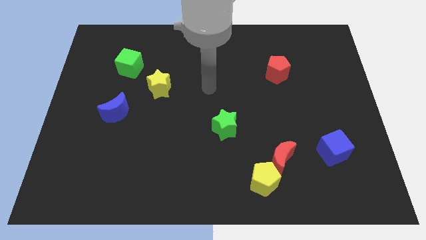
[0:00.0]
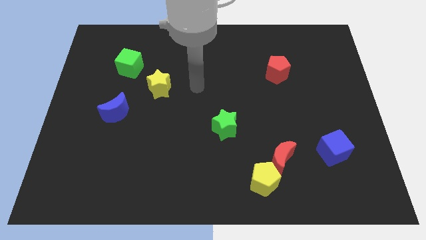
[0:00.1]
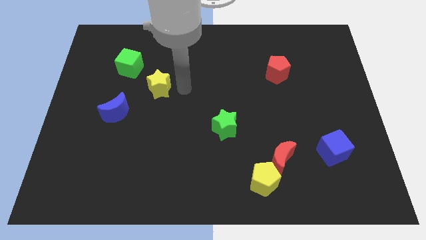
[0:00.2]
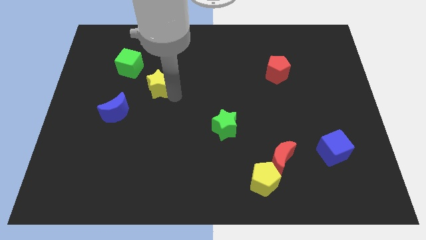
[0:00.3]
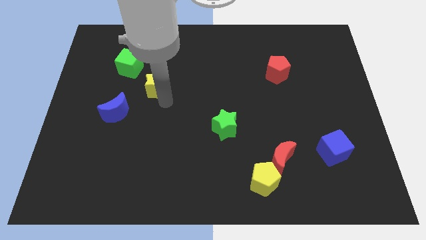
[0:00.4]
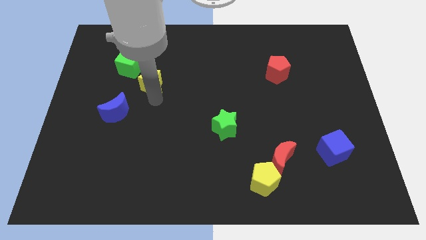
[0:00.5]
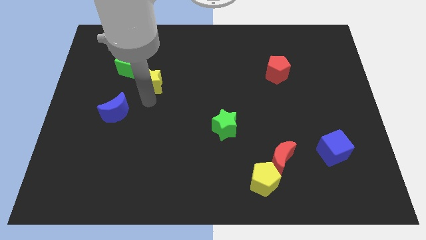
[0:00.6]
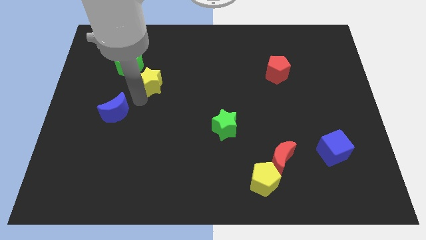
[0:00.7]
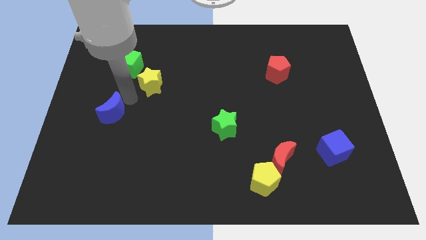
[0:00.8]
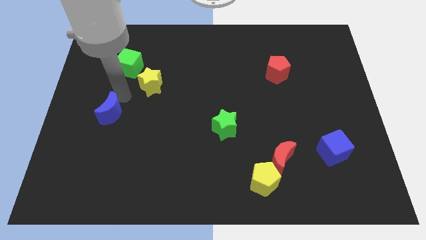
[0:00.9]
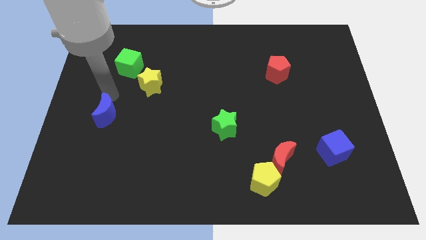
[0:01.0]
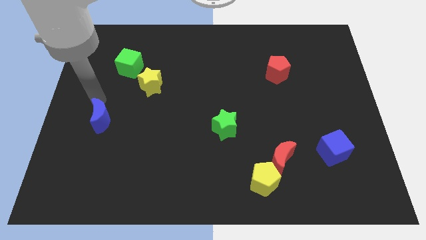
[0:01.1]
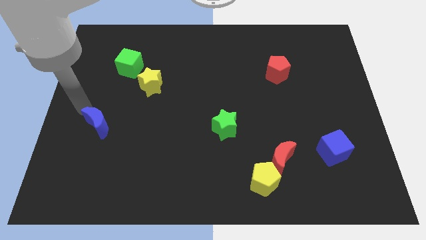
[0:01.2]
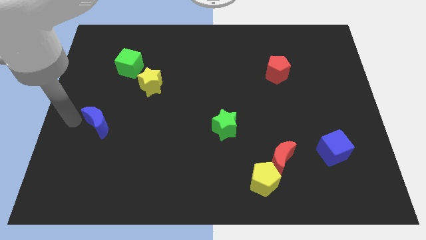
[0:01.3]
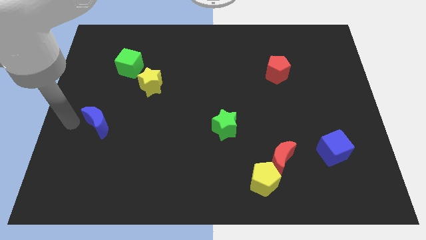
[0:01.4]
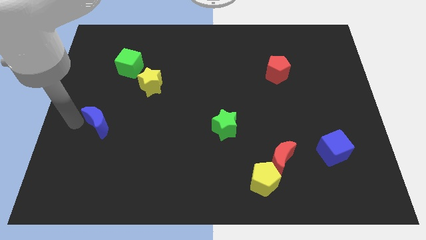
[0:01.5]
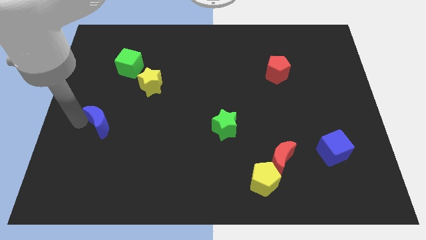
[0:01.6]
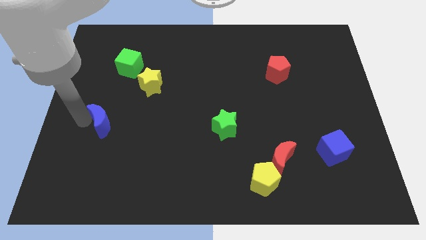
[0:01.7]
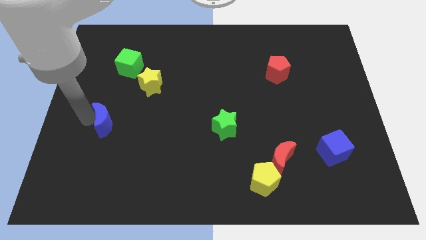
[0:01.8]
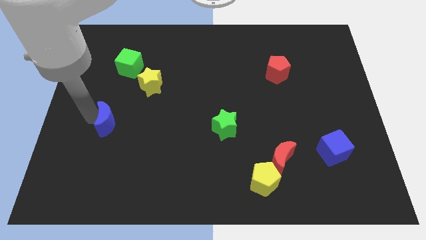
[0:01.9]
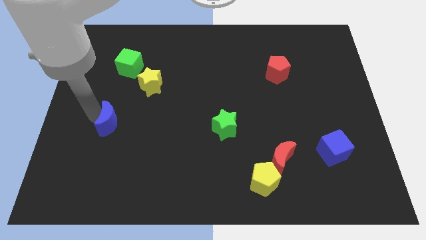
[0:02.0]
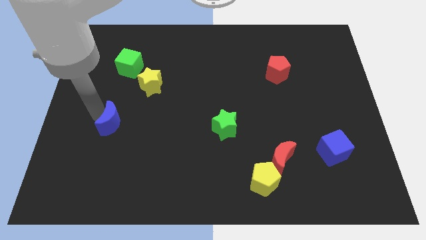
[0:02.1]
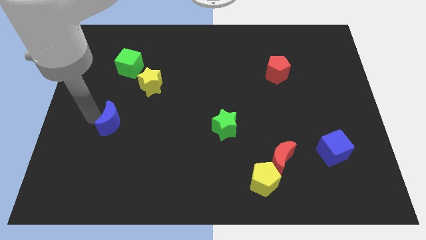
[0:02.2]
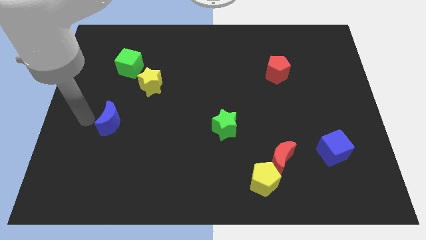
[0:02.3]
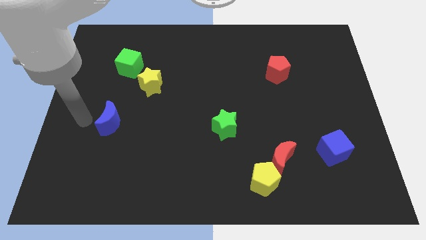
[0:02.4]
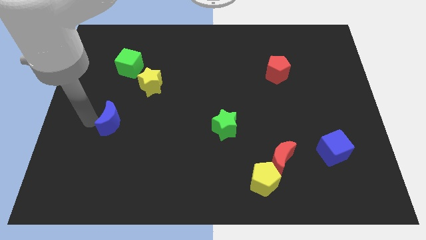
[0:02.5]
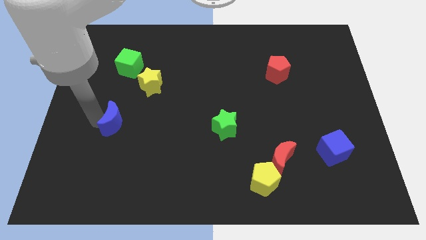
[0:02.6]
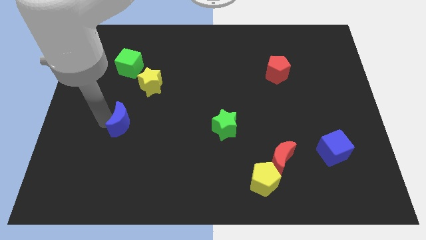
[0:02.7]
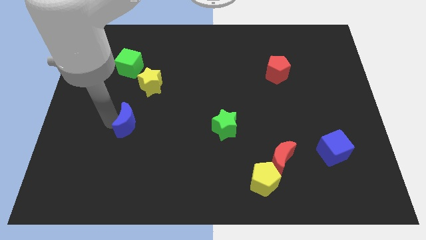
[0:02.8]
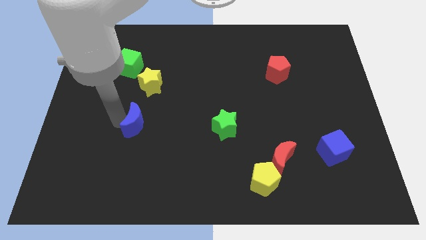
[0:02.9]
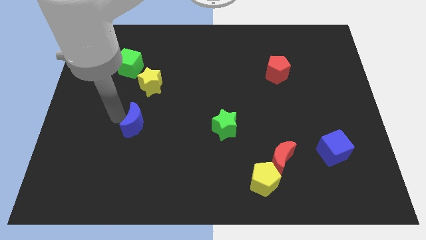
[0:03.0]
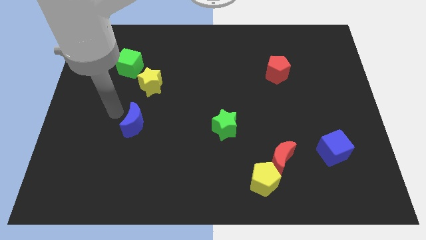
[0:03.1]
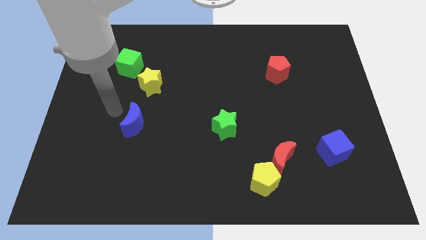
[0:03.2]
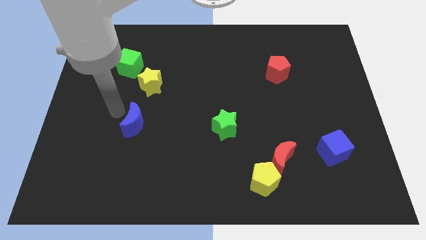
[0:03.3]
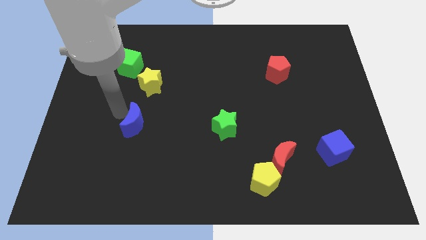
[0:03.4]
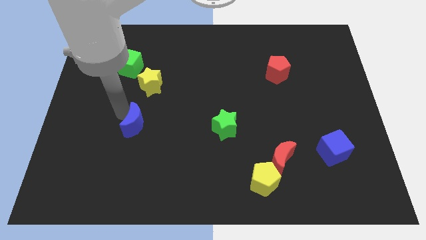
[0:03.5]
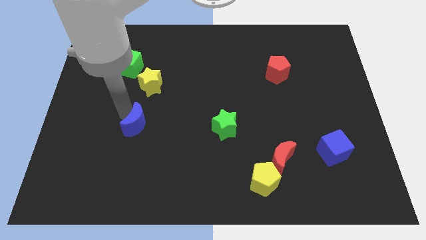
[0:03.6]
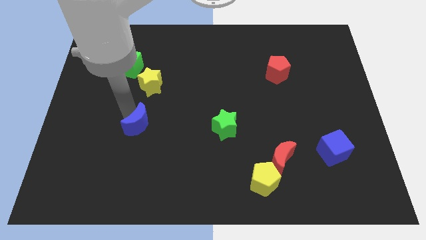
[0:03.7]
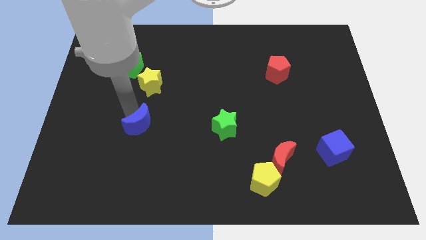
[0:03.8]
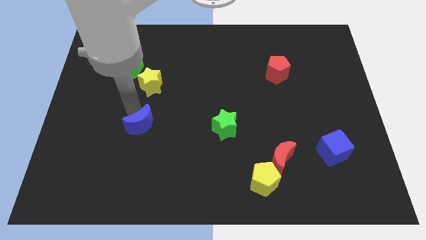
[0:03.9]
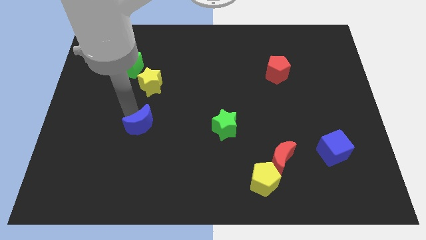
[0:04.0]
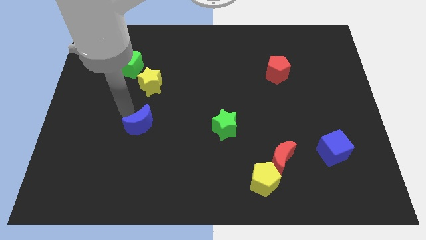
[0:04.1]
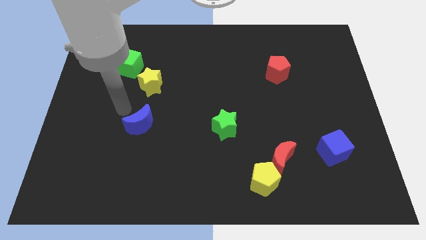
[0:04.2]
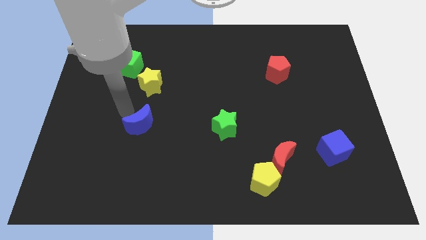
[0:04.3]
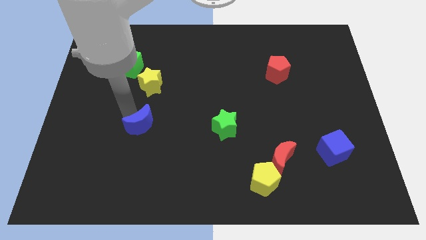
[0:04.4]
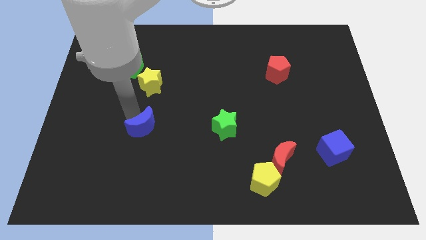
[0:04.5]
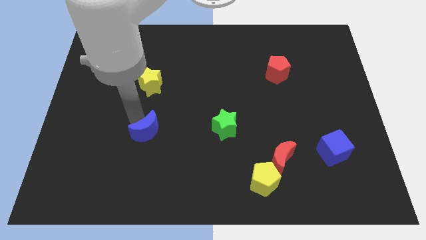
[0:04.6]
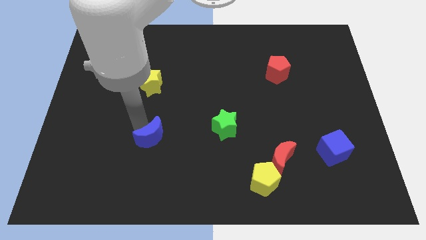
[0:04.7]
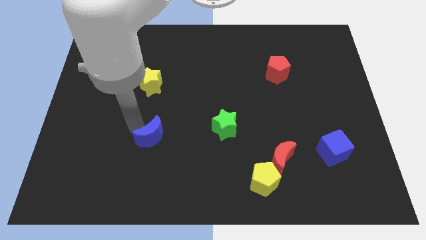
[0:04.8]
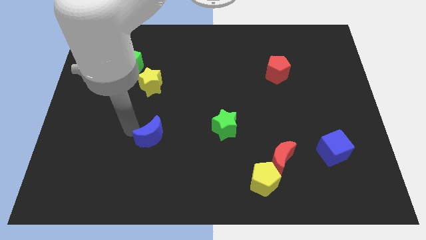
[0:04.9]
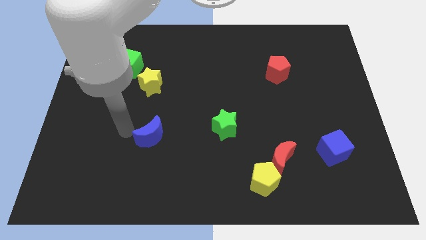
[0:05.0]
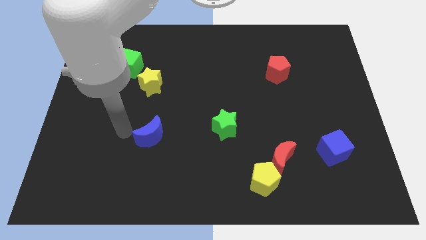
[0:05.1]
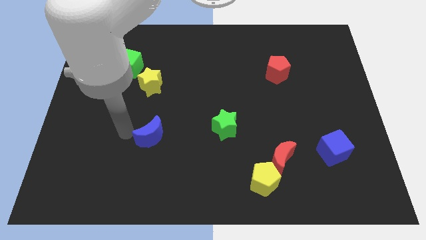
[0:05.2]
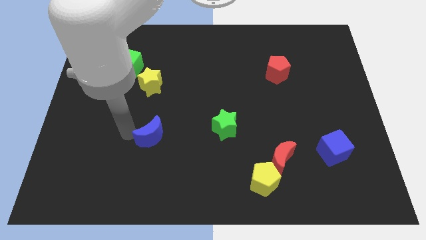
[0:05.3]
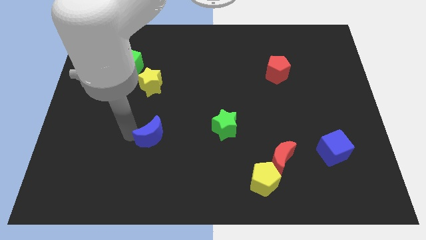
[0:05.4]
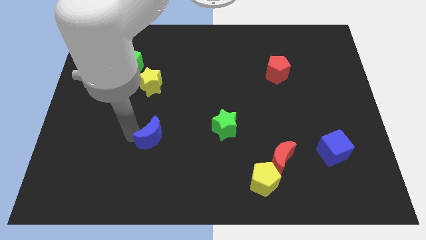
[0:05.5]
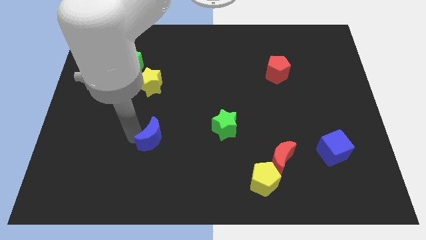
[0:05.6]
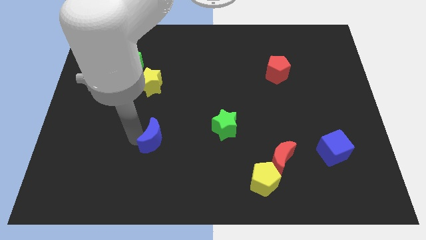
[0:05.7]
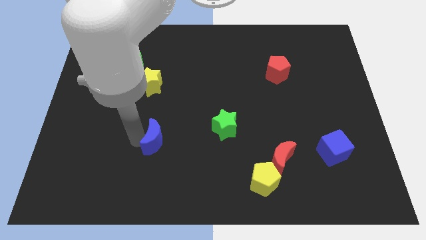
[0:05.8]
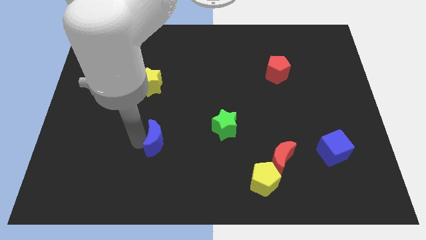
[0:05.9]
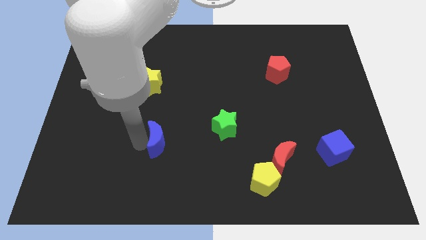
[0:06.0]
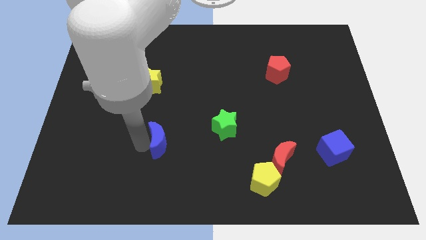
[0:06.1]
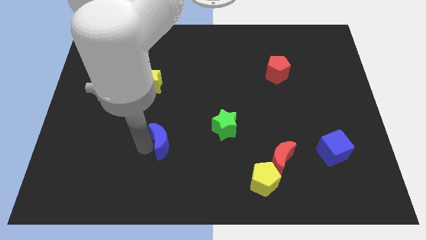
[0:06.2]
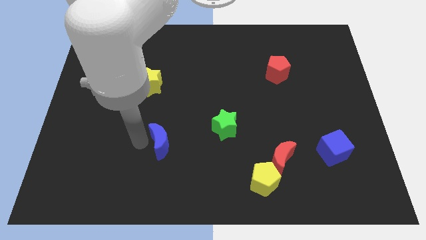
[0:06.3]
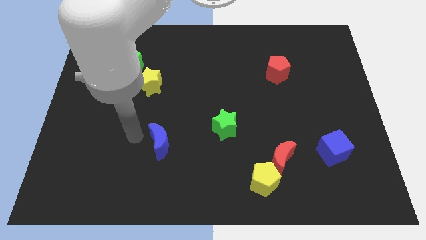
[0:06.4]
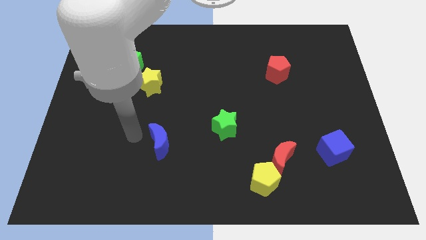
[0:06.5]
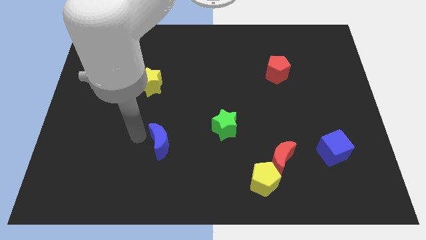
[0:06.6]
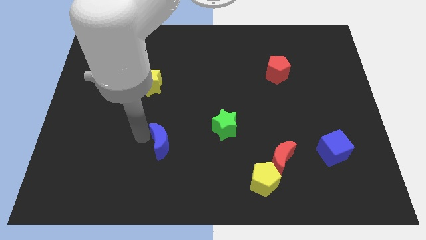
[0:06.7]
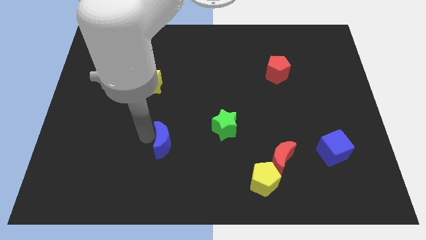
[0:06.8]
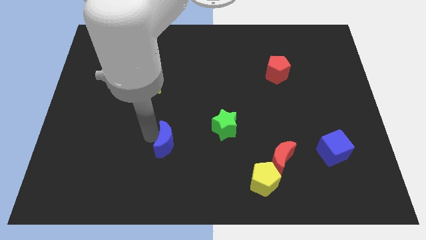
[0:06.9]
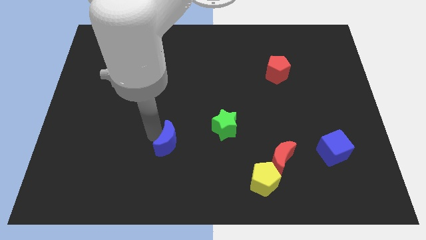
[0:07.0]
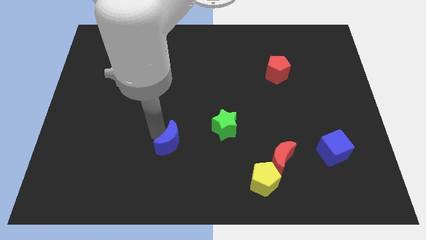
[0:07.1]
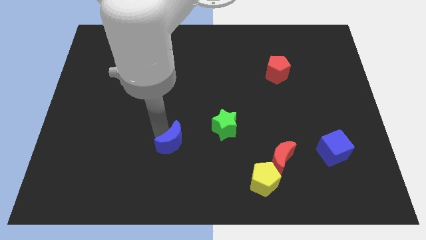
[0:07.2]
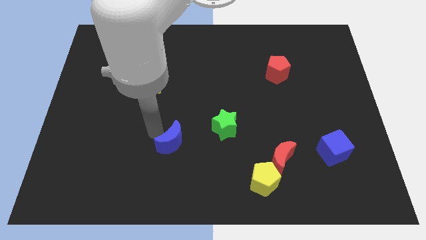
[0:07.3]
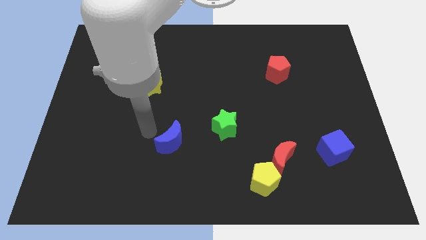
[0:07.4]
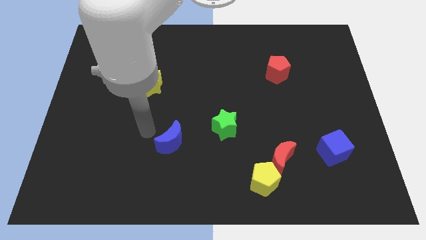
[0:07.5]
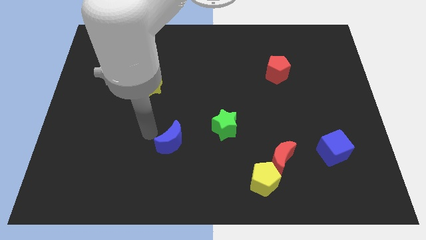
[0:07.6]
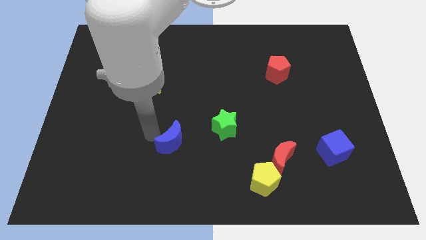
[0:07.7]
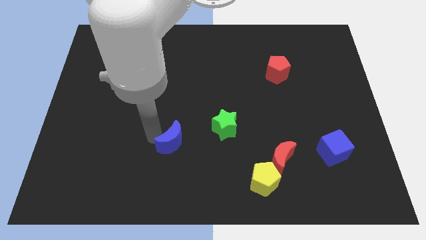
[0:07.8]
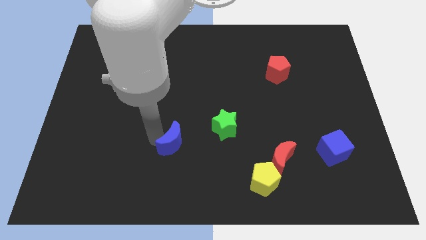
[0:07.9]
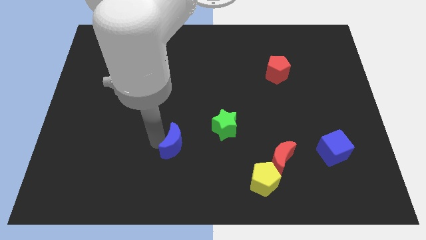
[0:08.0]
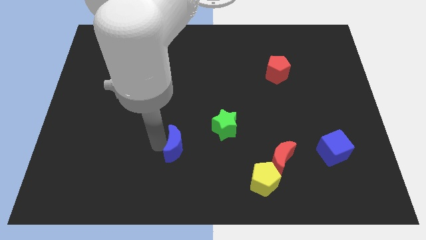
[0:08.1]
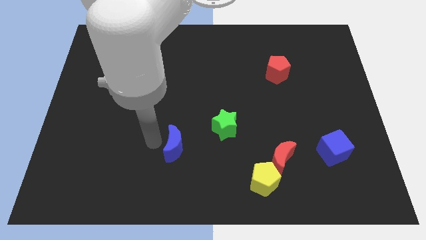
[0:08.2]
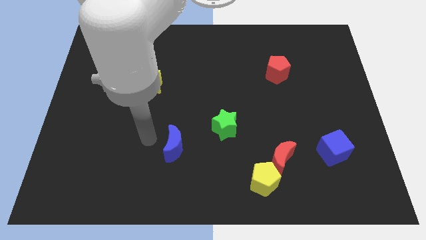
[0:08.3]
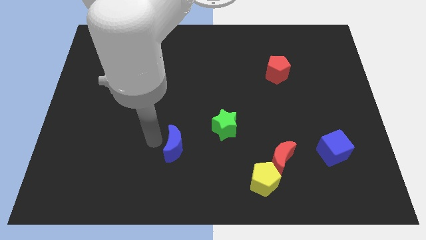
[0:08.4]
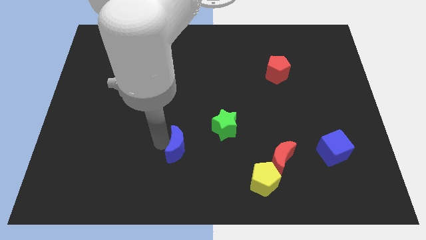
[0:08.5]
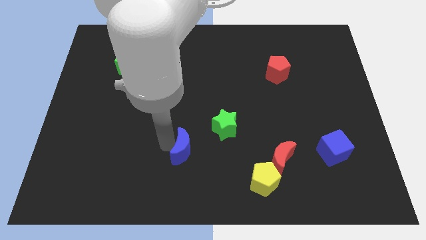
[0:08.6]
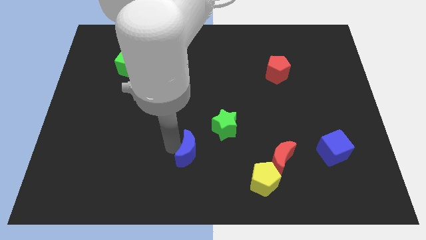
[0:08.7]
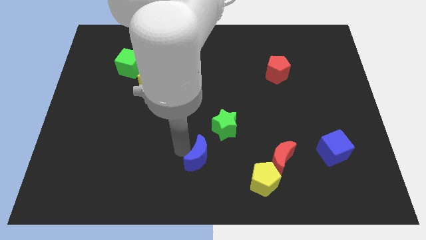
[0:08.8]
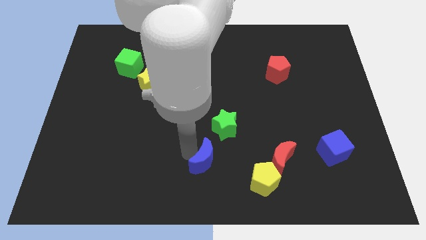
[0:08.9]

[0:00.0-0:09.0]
push the blue moon to the bottom of the green star
